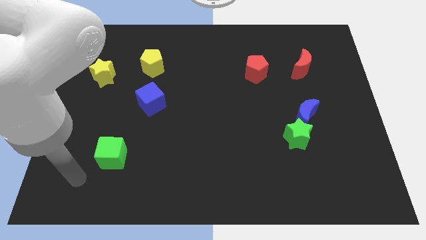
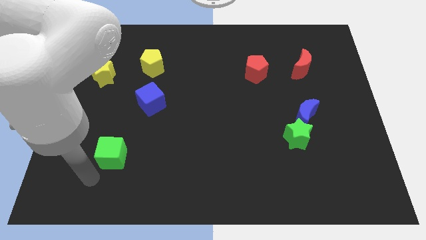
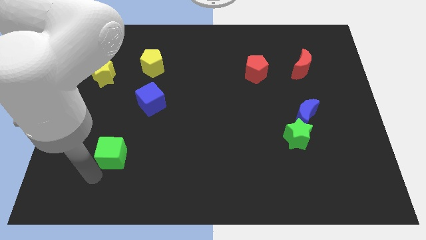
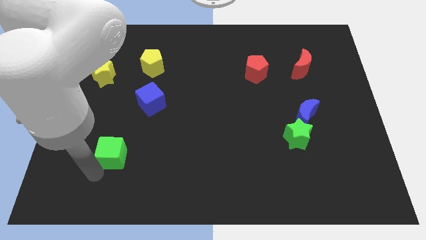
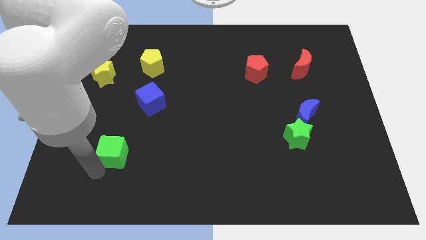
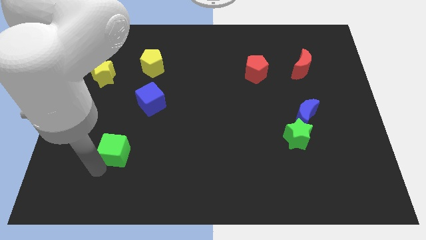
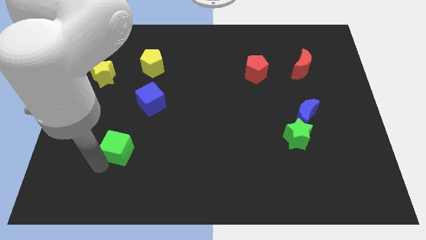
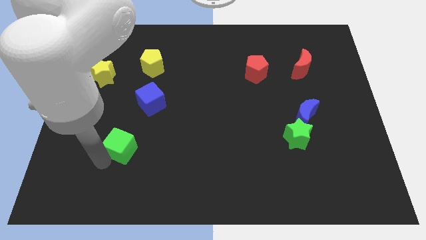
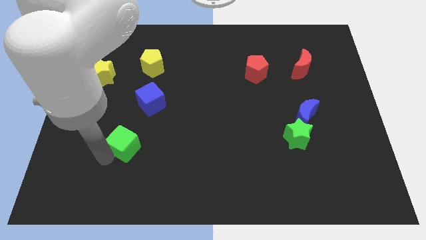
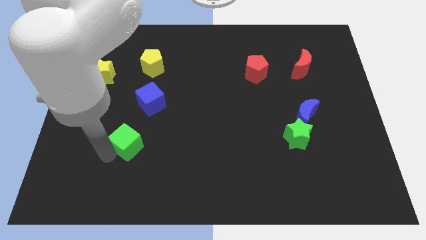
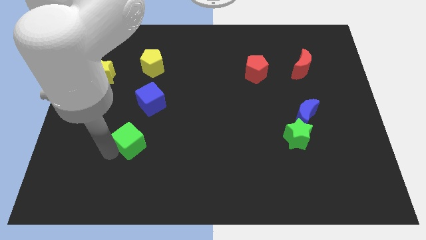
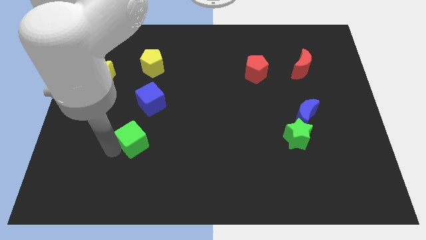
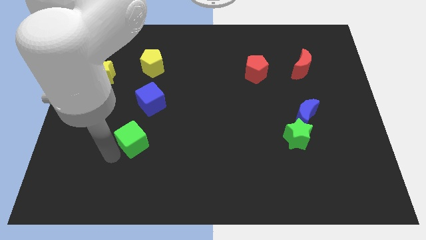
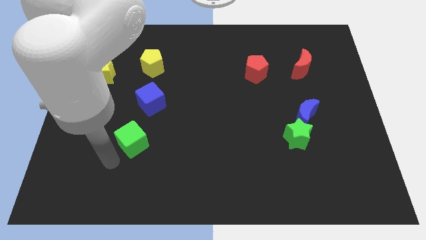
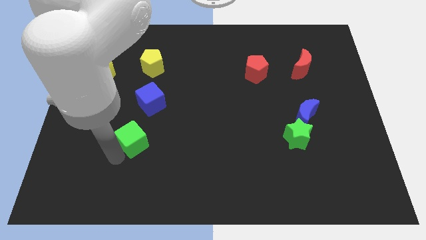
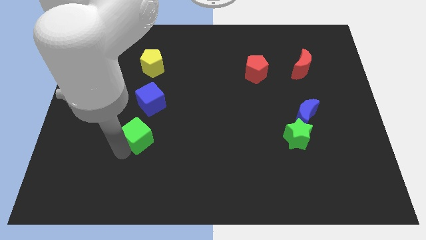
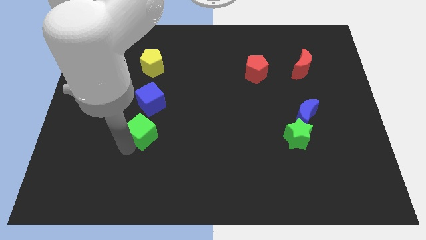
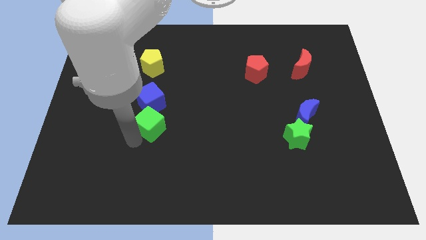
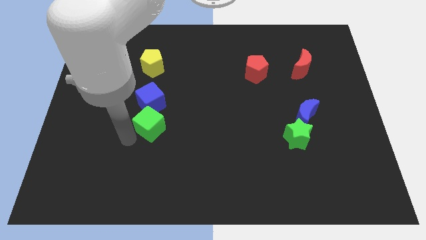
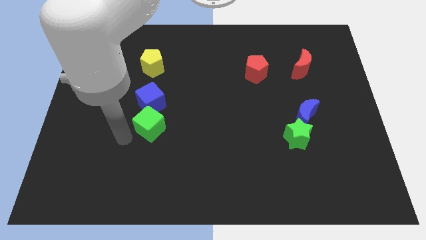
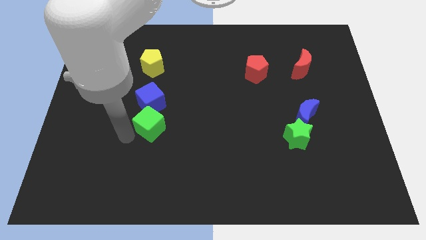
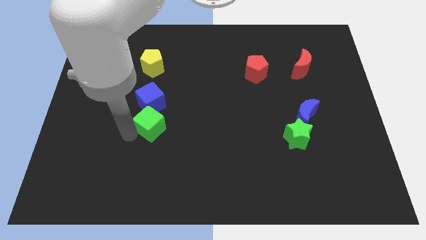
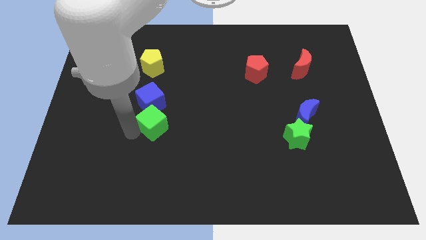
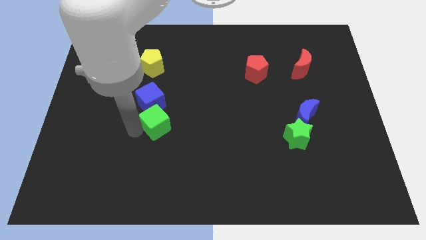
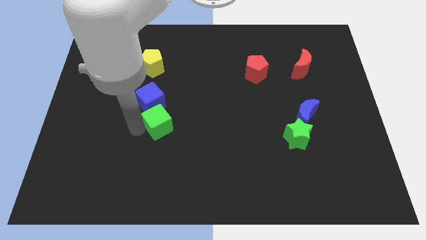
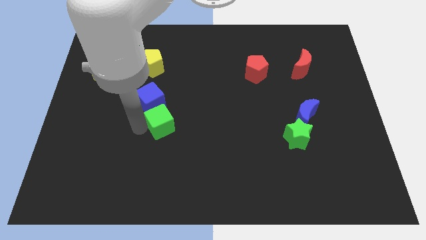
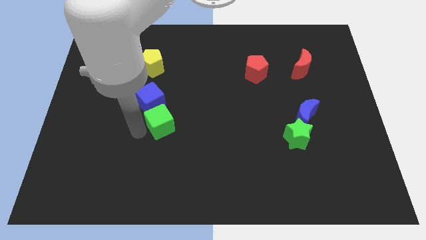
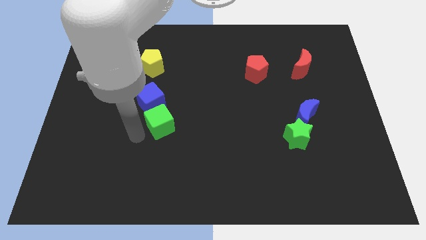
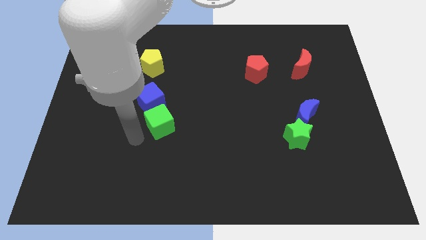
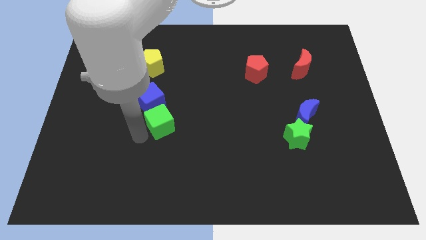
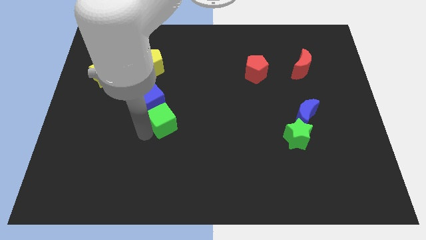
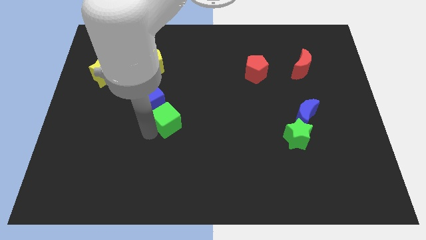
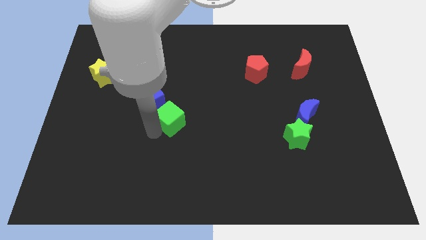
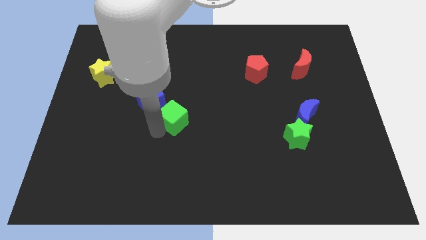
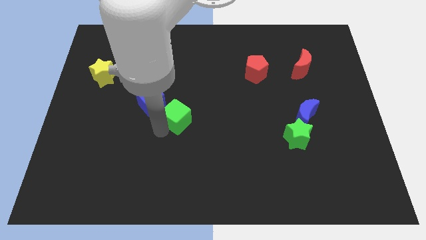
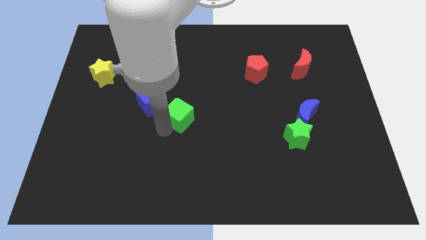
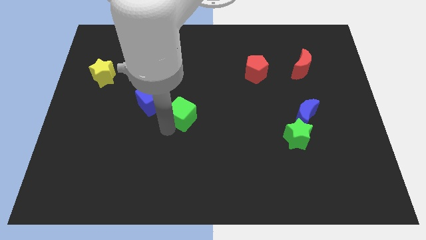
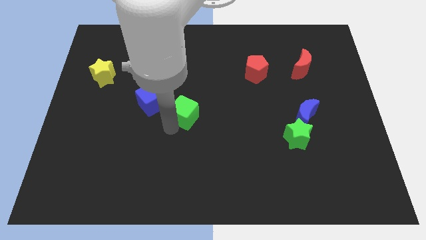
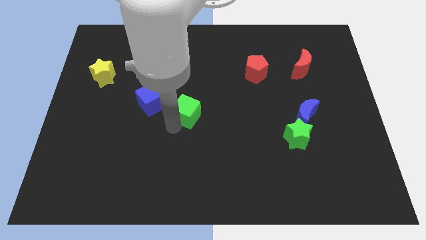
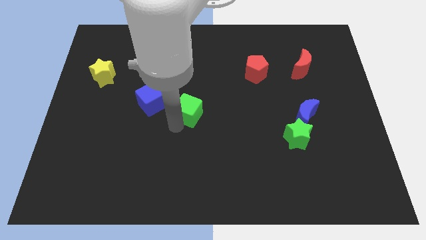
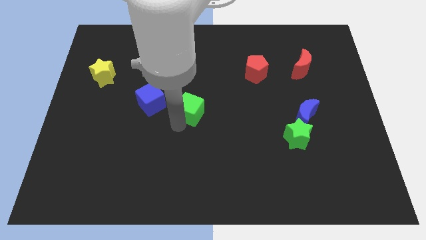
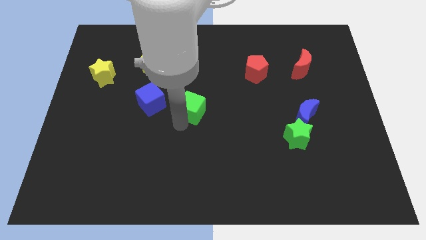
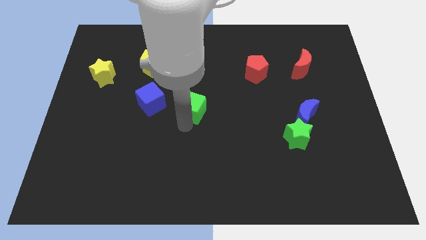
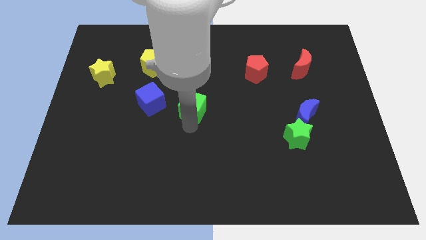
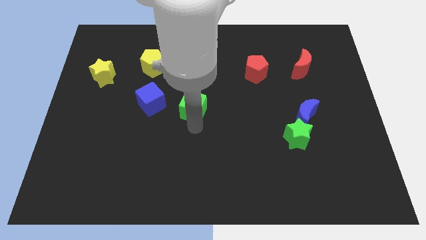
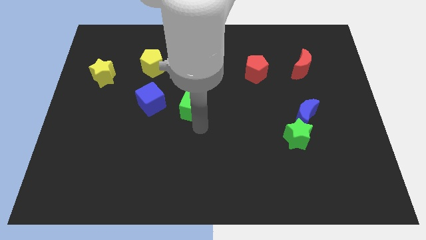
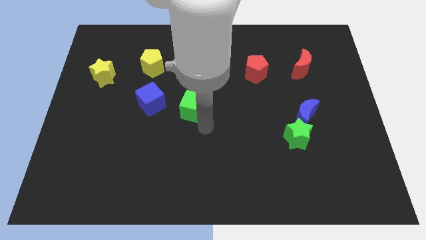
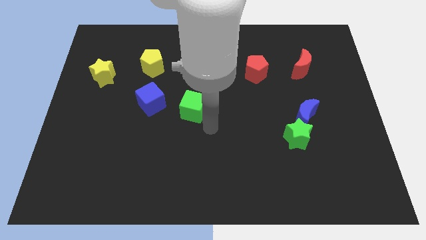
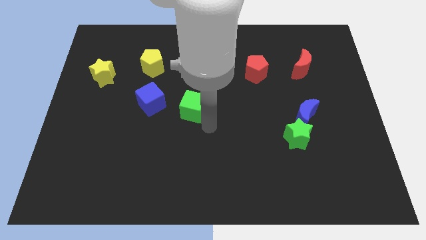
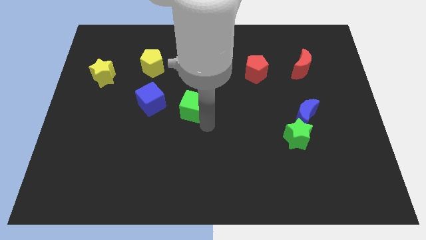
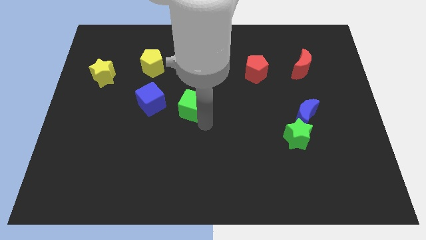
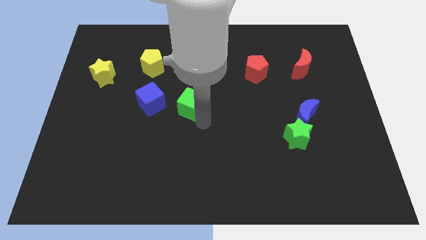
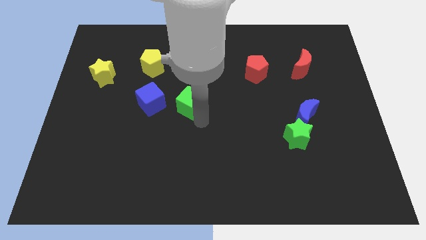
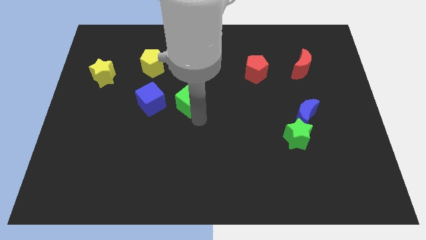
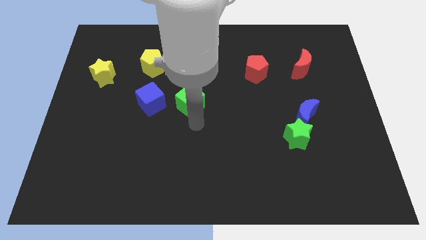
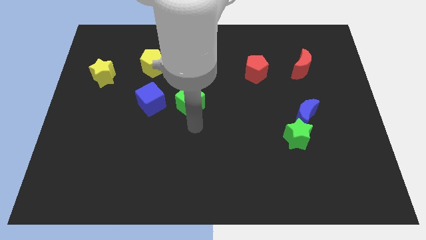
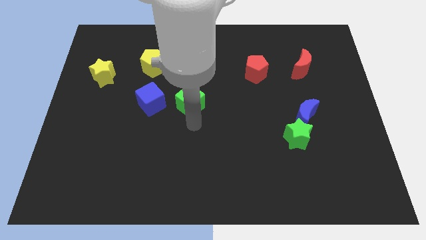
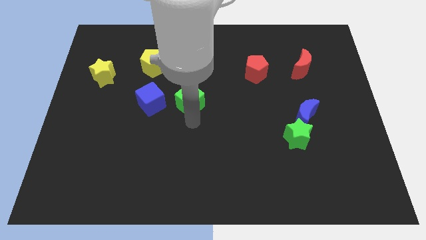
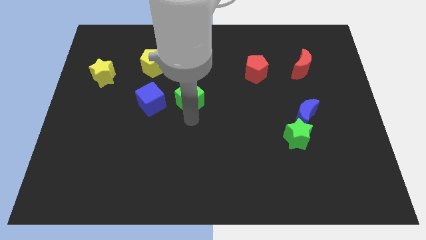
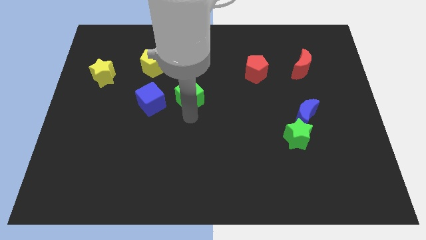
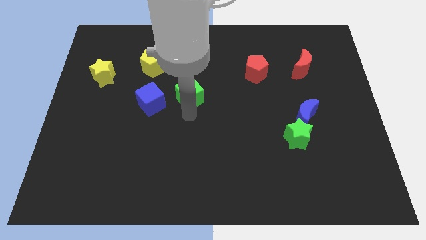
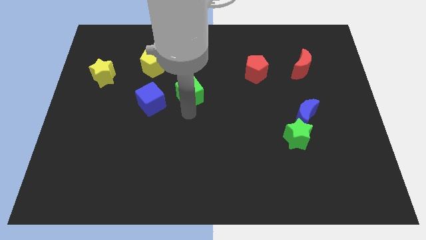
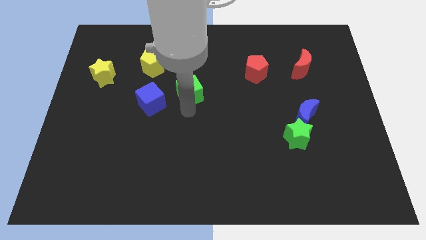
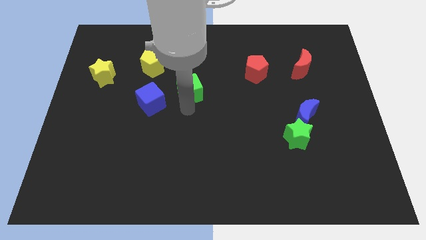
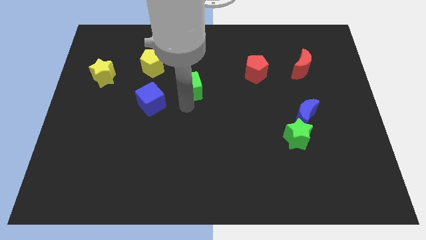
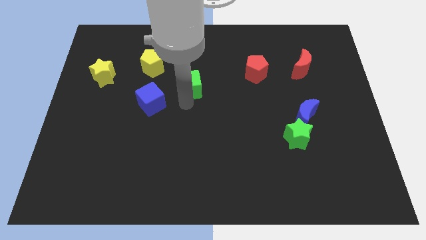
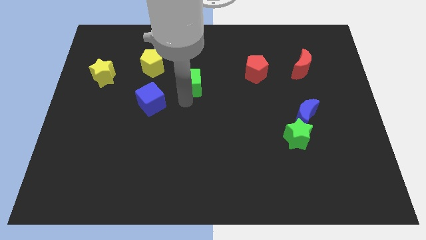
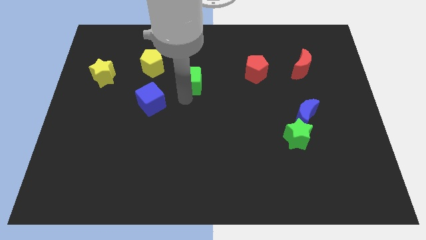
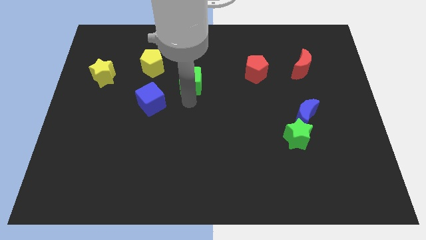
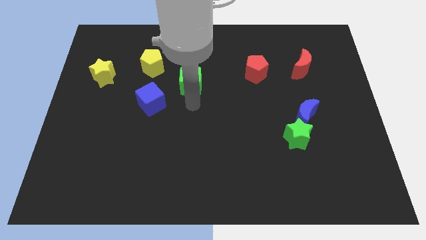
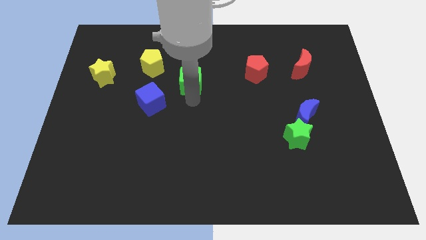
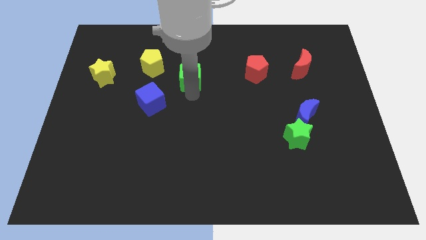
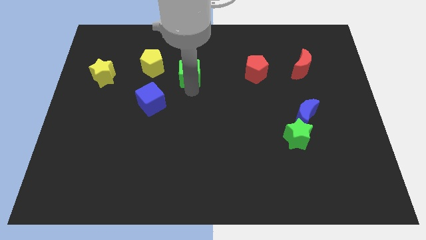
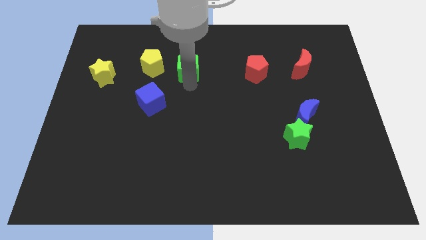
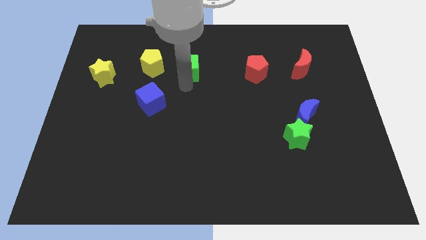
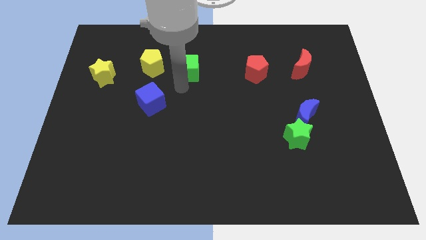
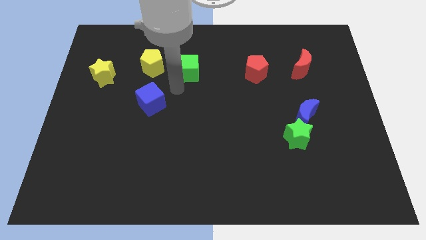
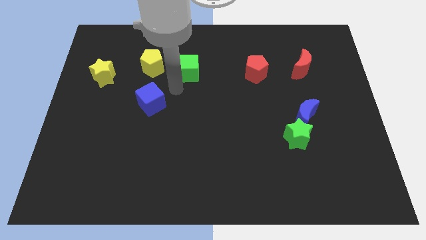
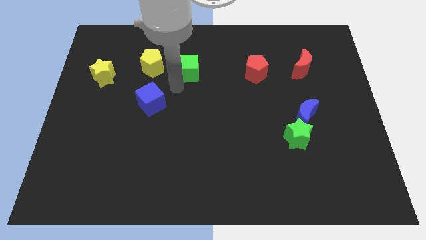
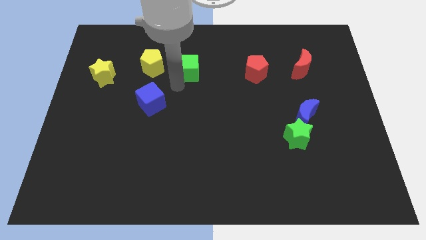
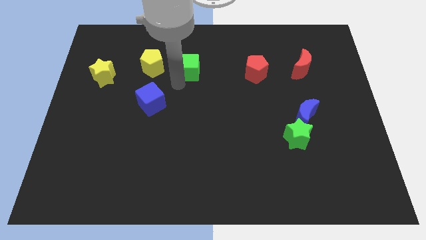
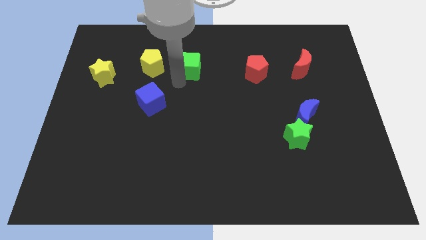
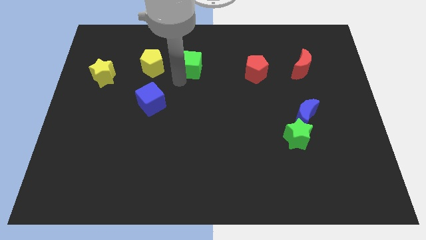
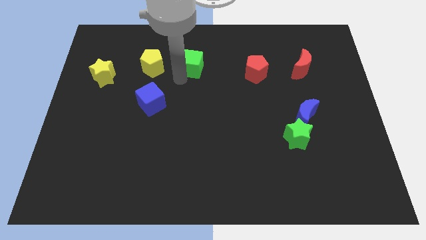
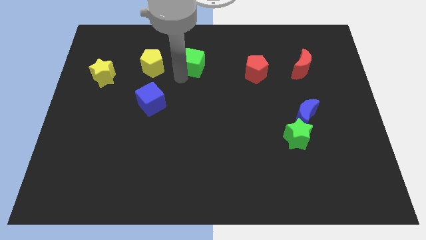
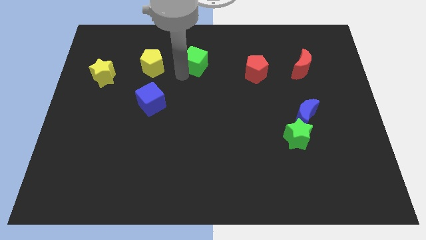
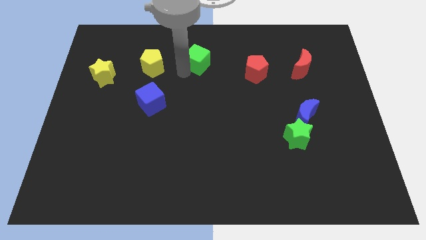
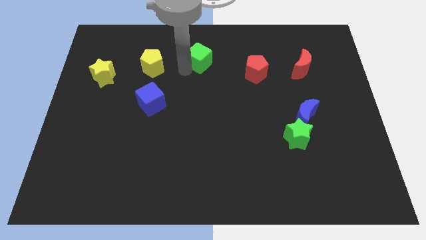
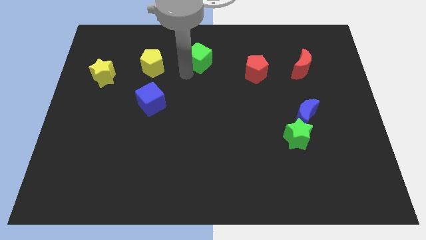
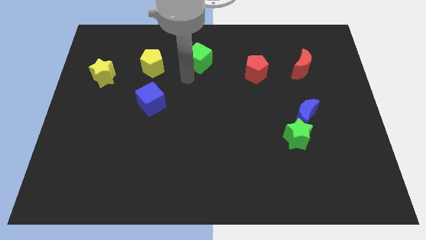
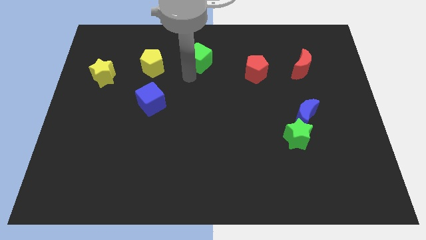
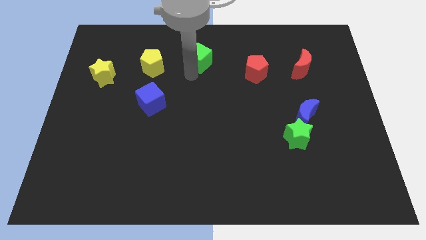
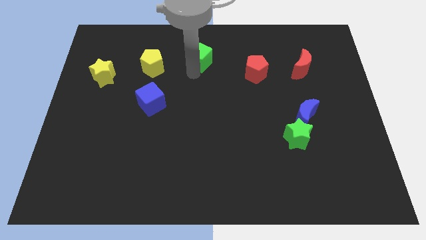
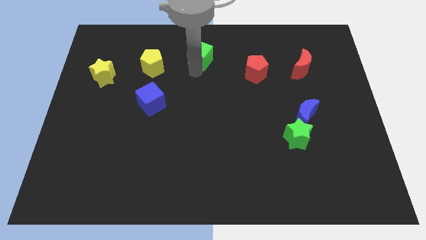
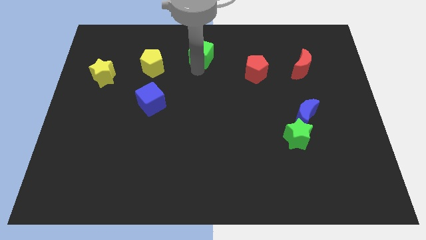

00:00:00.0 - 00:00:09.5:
push the green cube to the towards your base
